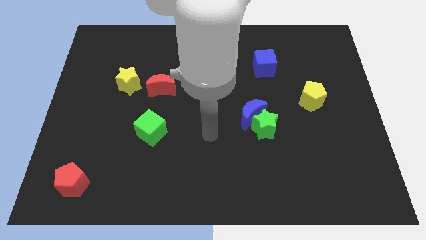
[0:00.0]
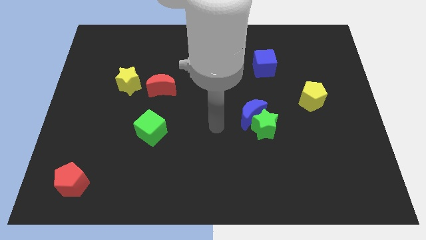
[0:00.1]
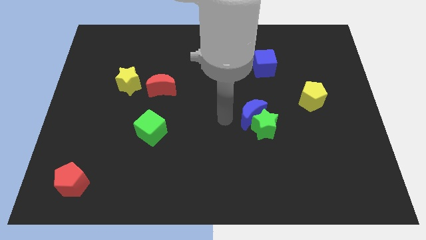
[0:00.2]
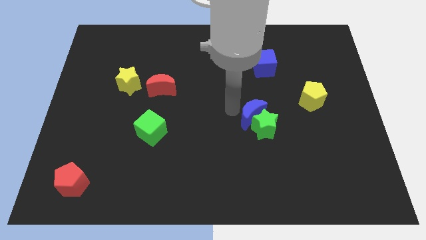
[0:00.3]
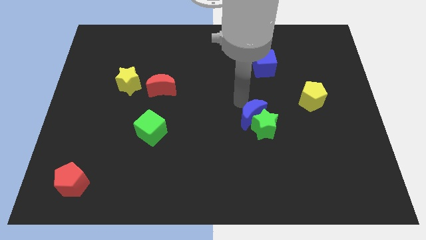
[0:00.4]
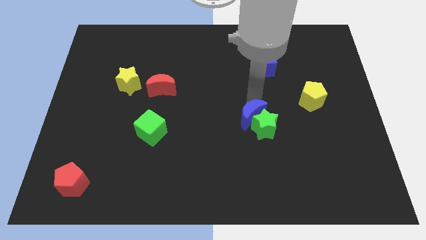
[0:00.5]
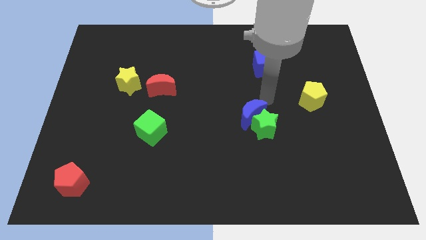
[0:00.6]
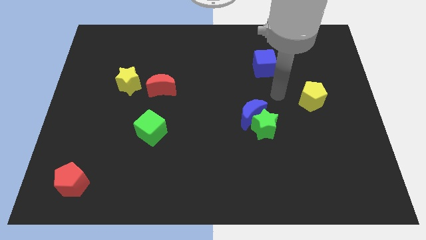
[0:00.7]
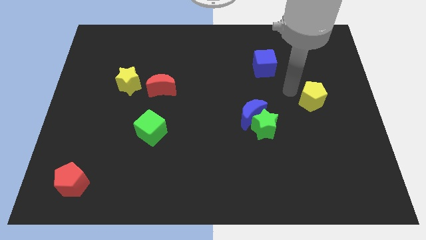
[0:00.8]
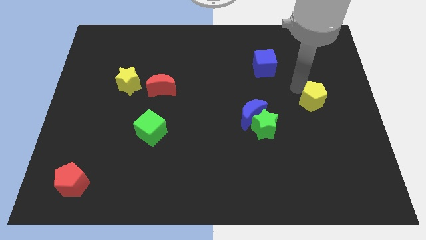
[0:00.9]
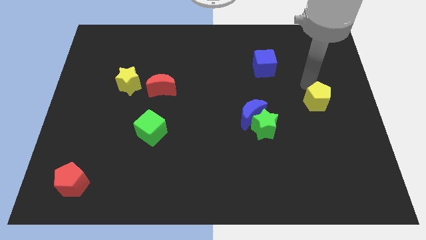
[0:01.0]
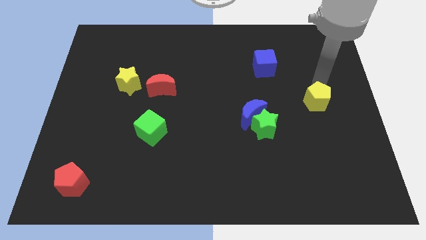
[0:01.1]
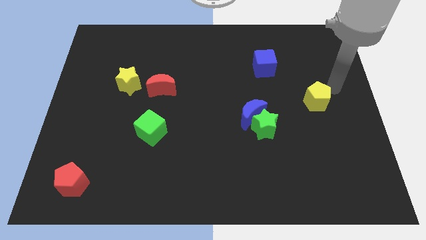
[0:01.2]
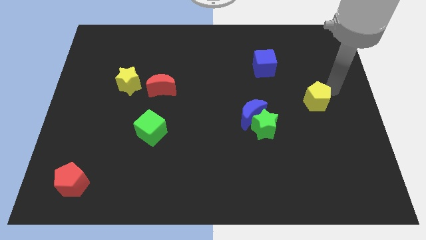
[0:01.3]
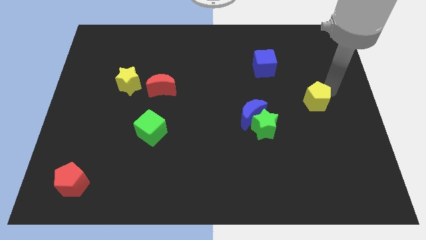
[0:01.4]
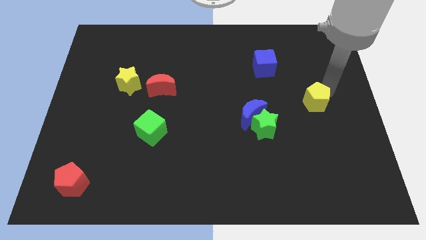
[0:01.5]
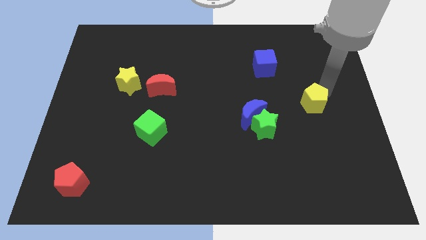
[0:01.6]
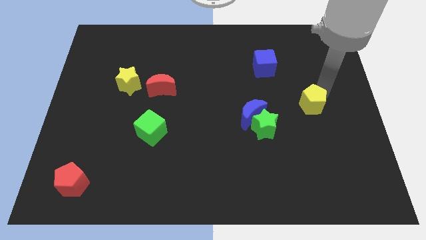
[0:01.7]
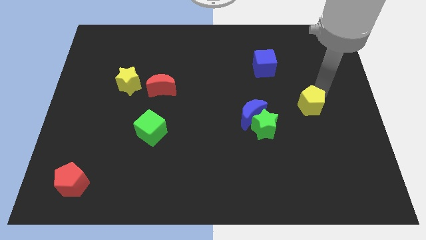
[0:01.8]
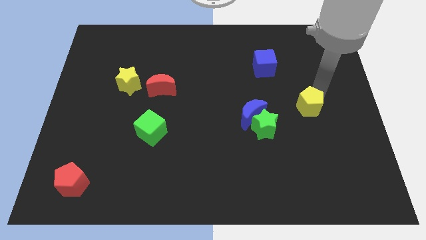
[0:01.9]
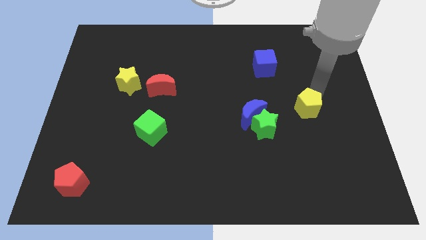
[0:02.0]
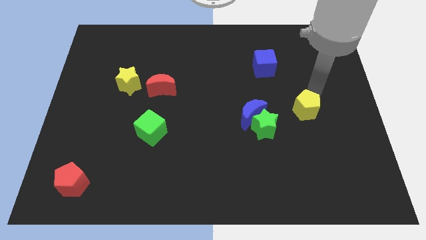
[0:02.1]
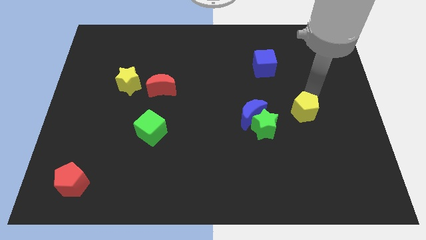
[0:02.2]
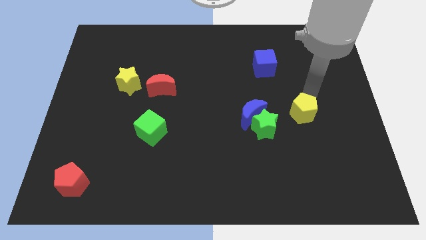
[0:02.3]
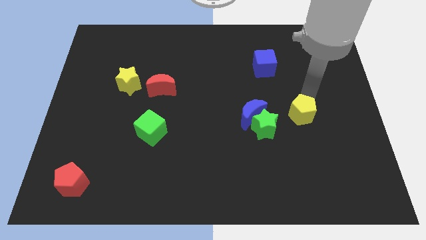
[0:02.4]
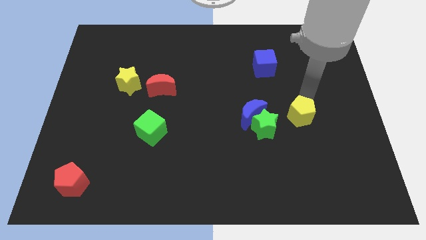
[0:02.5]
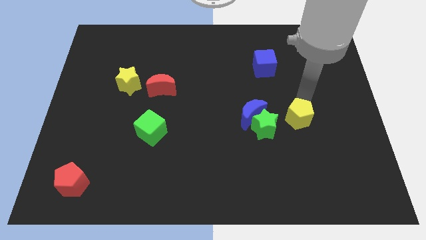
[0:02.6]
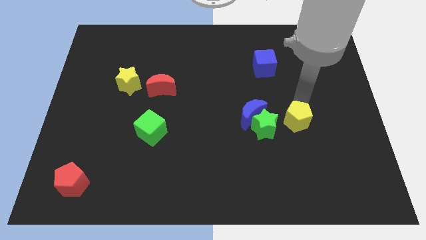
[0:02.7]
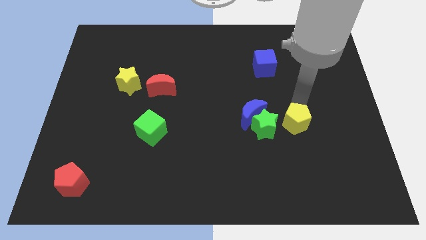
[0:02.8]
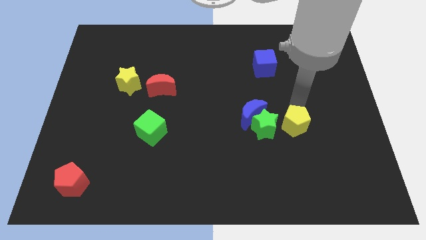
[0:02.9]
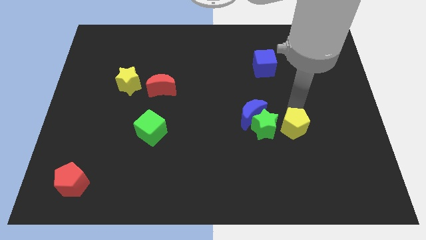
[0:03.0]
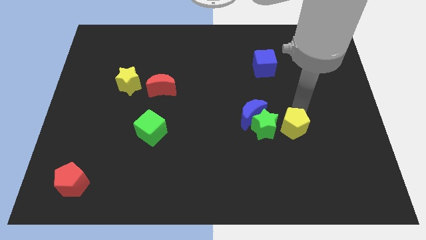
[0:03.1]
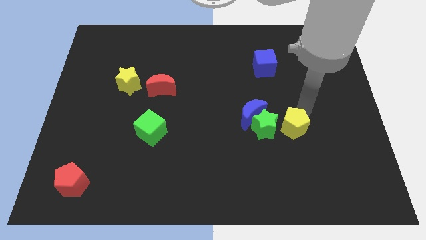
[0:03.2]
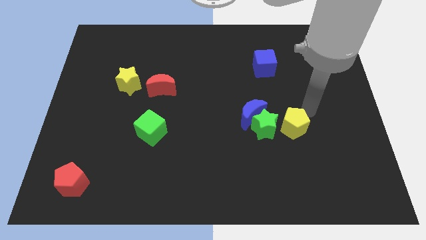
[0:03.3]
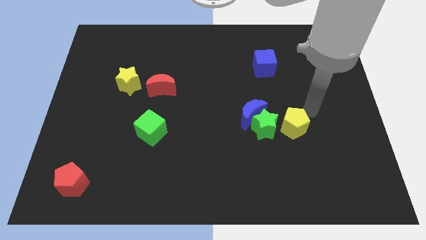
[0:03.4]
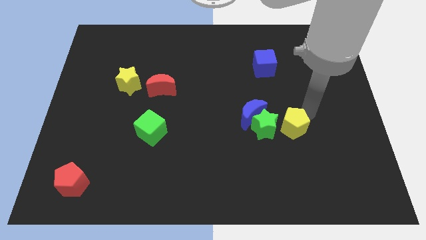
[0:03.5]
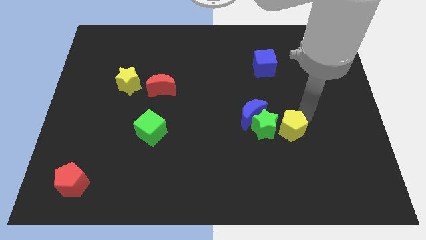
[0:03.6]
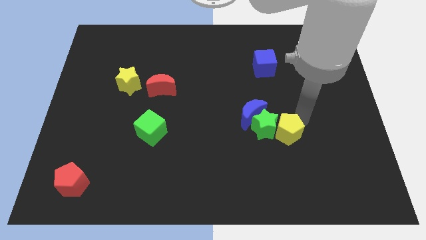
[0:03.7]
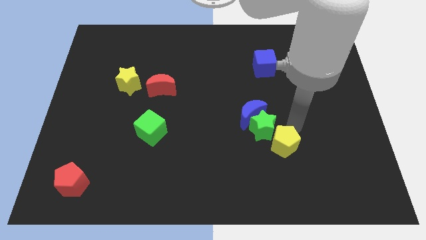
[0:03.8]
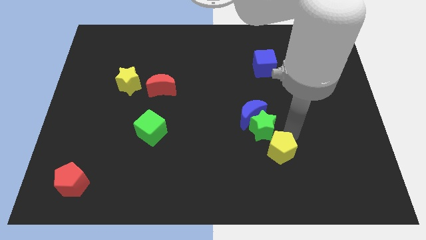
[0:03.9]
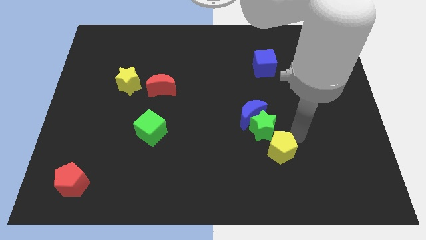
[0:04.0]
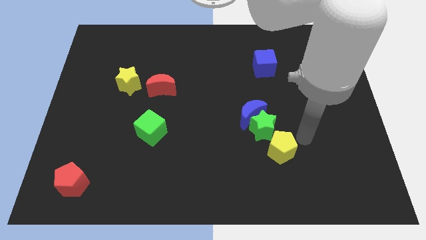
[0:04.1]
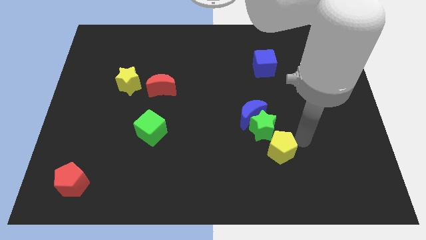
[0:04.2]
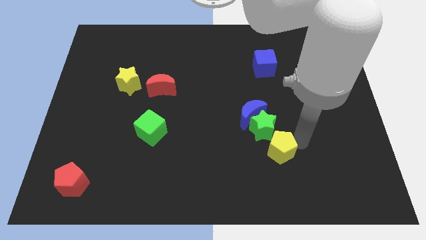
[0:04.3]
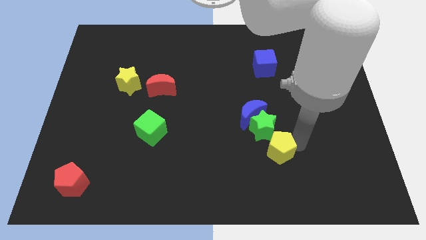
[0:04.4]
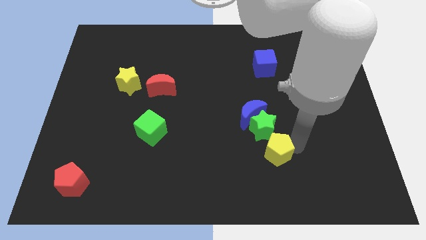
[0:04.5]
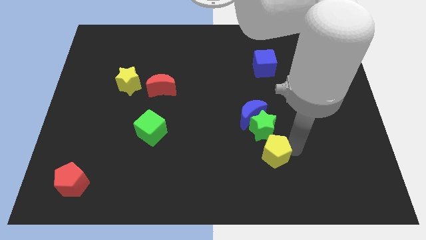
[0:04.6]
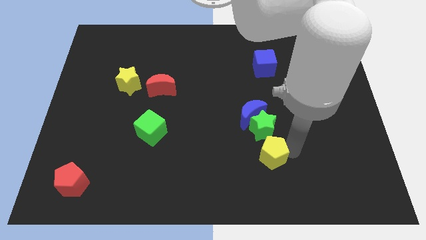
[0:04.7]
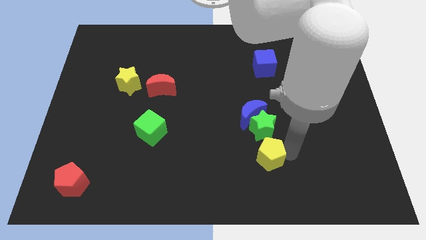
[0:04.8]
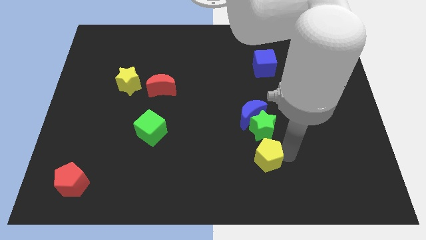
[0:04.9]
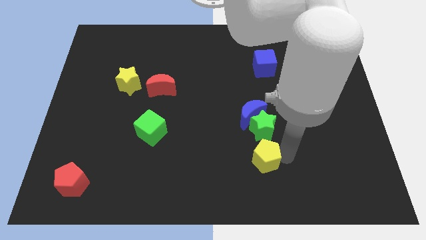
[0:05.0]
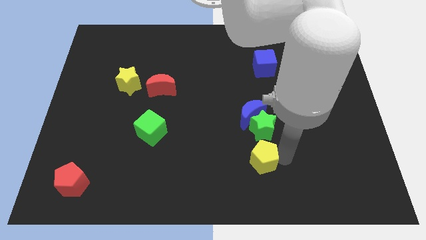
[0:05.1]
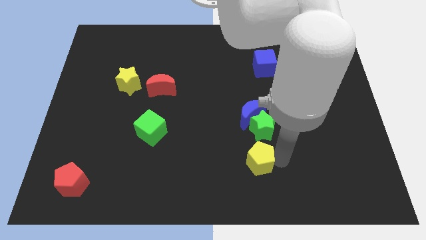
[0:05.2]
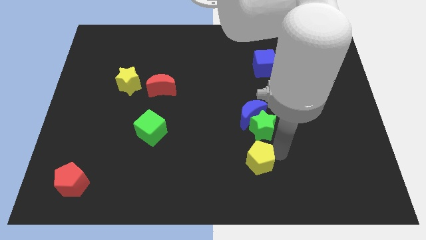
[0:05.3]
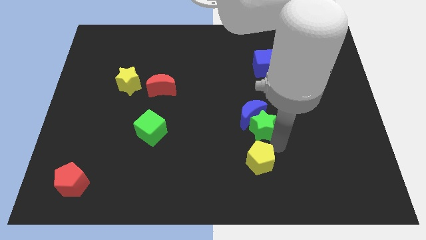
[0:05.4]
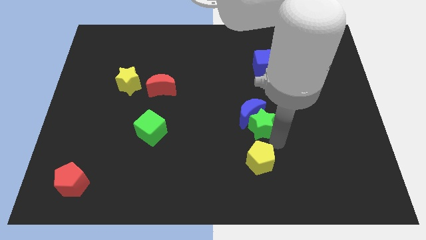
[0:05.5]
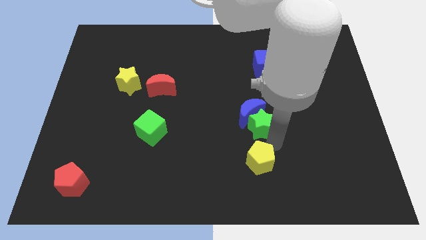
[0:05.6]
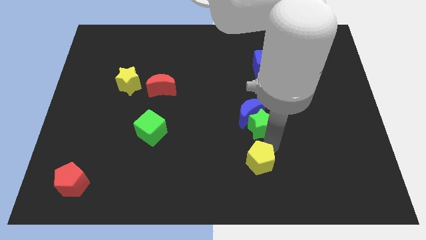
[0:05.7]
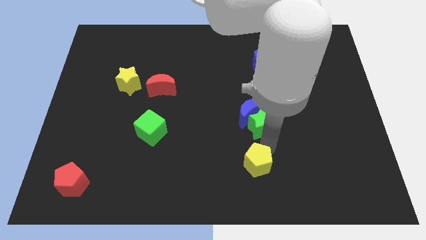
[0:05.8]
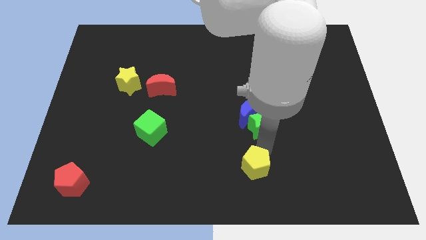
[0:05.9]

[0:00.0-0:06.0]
put the yellow pentagon to the bottom side

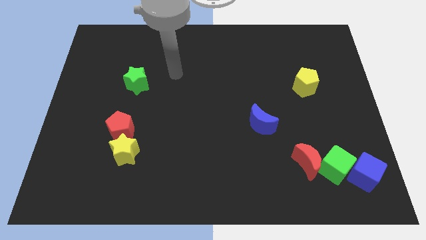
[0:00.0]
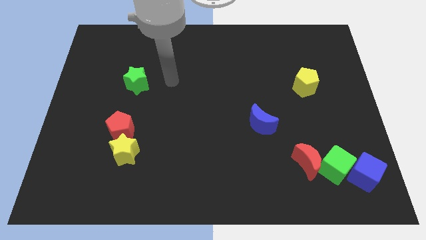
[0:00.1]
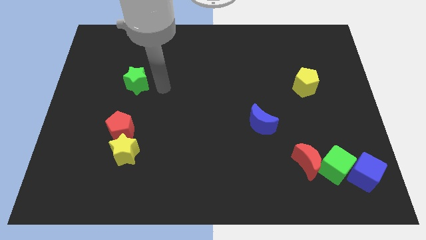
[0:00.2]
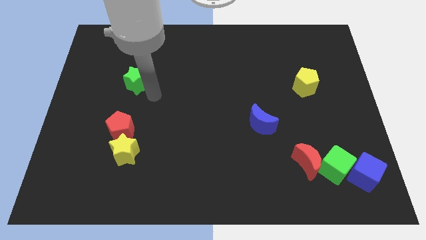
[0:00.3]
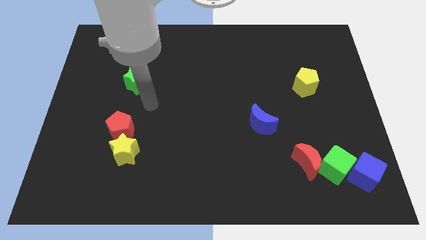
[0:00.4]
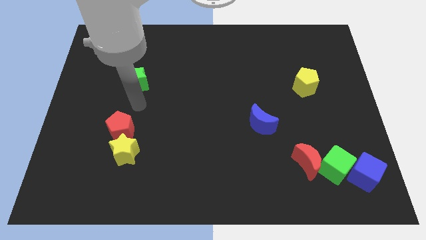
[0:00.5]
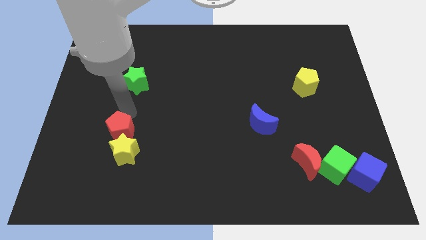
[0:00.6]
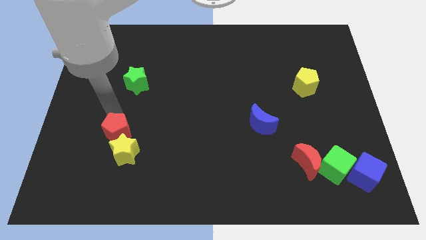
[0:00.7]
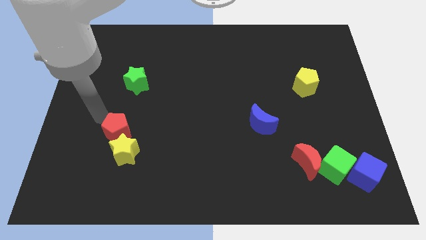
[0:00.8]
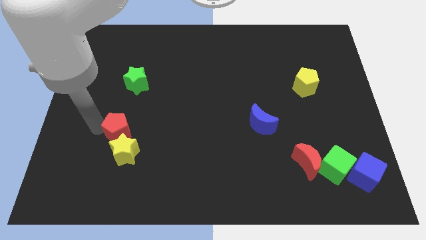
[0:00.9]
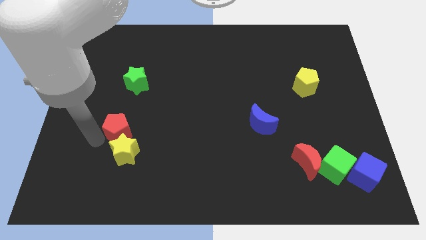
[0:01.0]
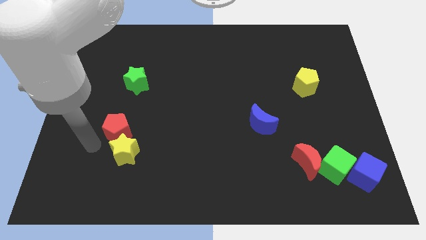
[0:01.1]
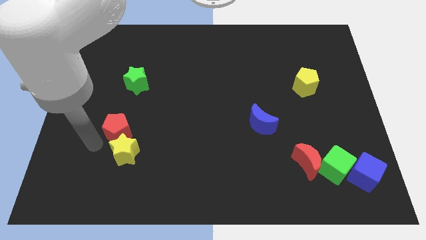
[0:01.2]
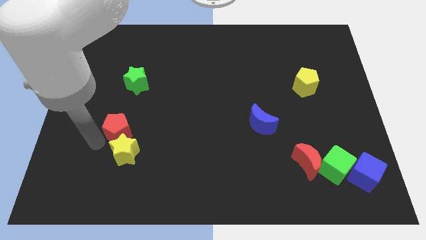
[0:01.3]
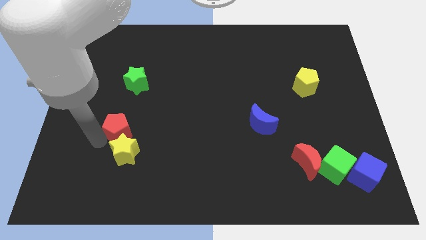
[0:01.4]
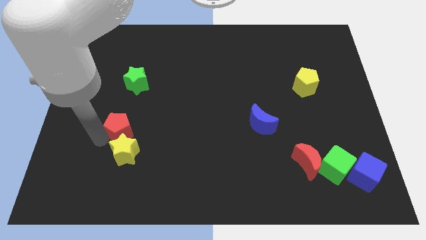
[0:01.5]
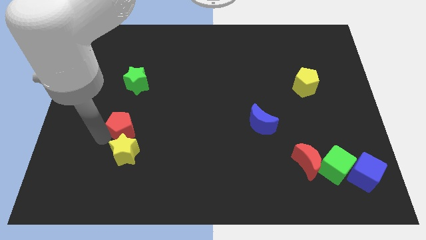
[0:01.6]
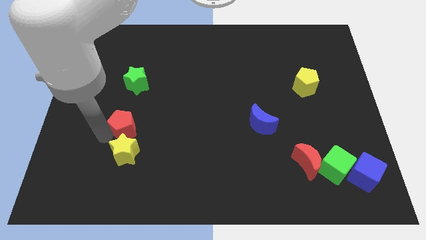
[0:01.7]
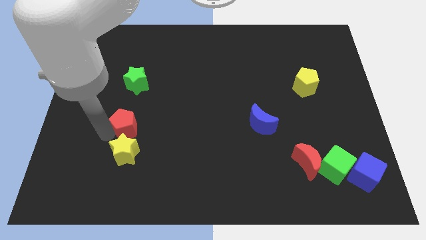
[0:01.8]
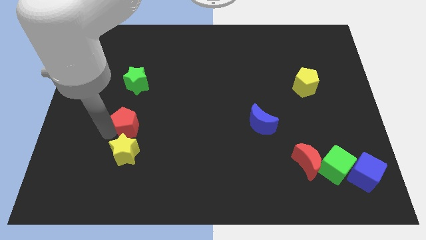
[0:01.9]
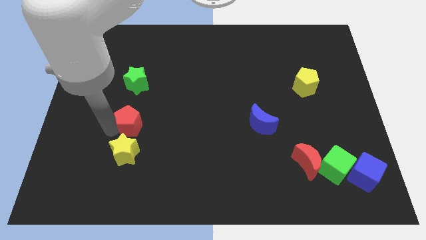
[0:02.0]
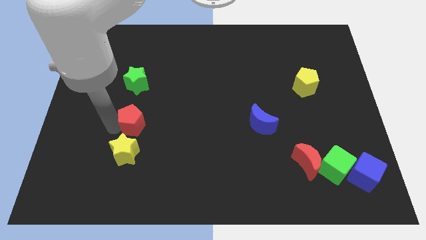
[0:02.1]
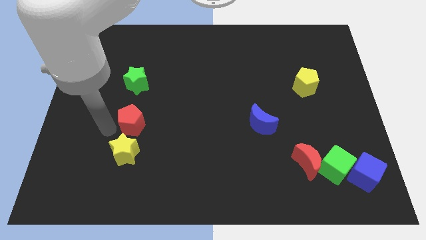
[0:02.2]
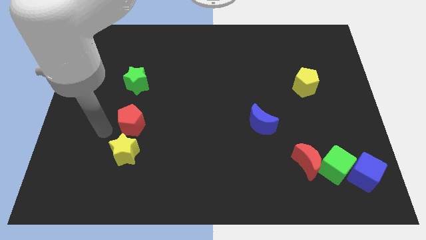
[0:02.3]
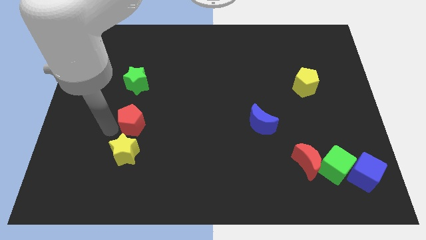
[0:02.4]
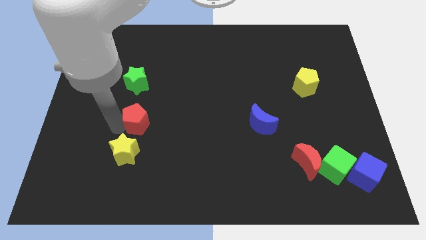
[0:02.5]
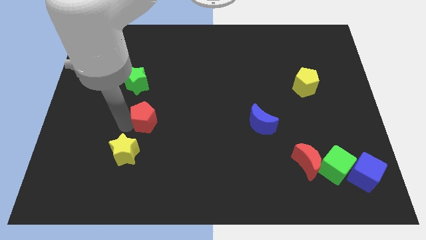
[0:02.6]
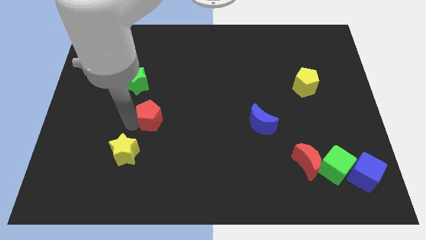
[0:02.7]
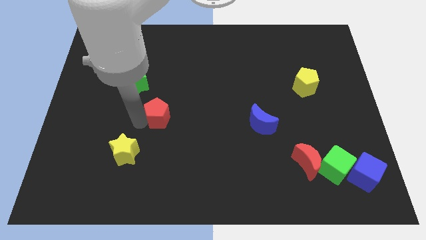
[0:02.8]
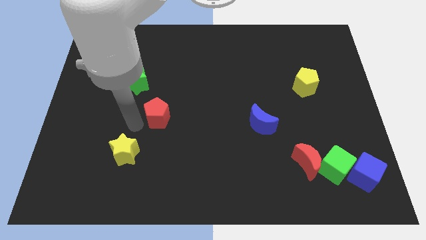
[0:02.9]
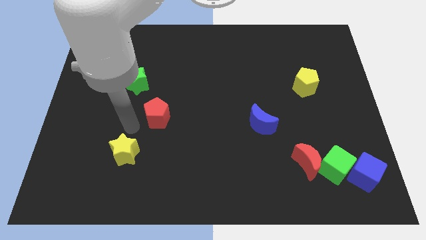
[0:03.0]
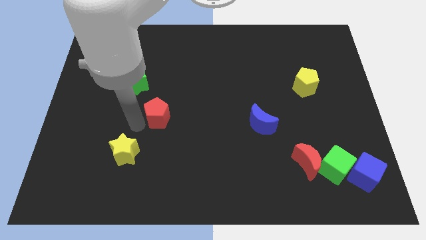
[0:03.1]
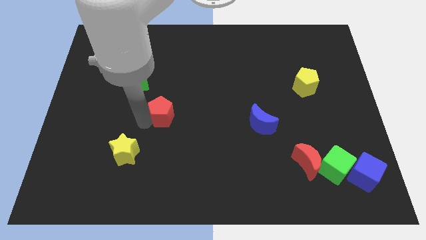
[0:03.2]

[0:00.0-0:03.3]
put the red pentagon to the middle
